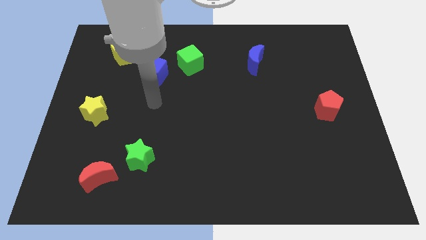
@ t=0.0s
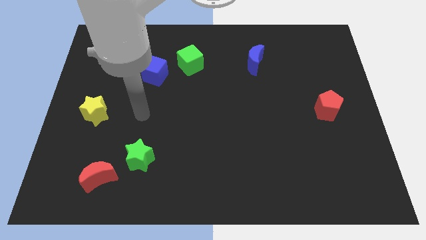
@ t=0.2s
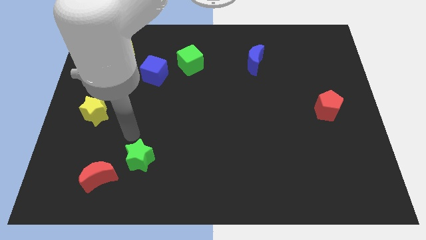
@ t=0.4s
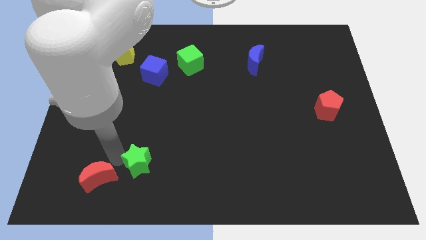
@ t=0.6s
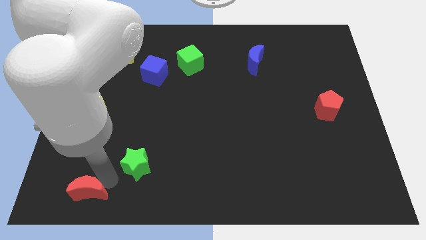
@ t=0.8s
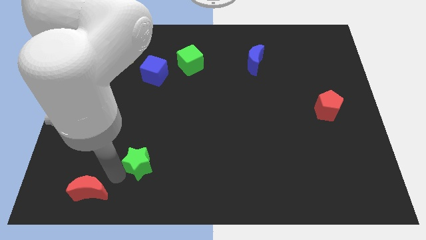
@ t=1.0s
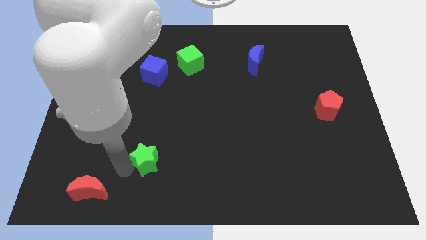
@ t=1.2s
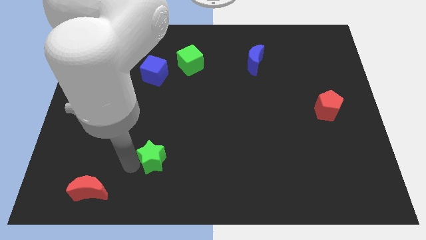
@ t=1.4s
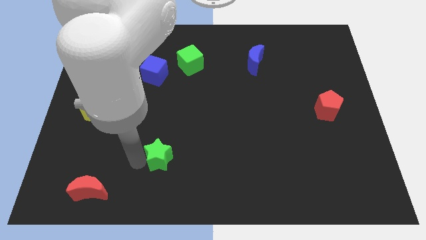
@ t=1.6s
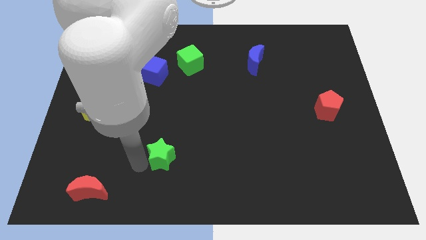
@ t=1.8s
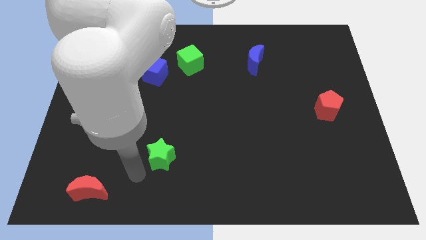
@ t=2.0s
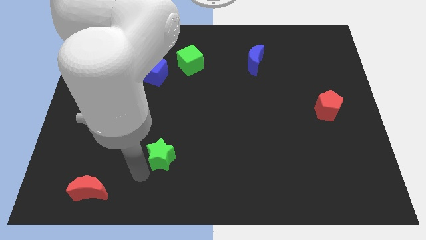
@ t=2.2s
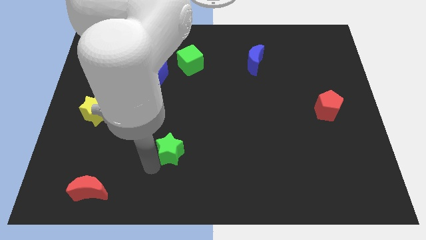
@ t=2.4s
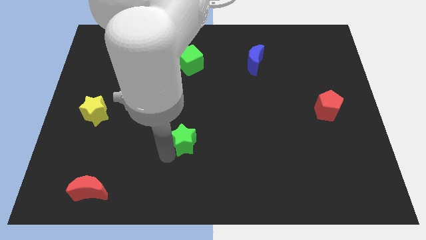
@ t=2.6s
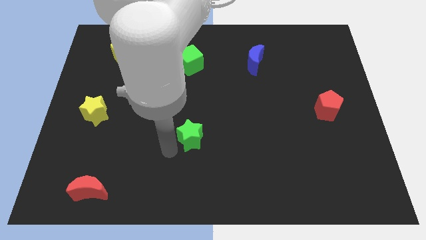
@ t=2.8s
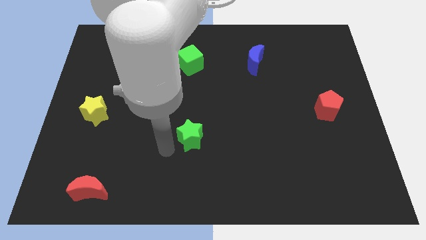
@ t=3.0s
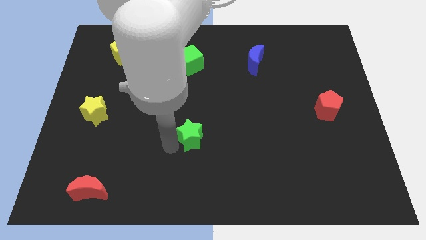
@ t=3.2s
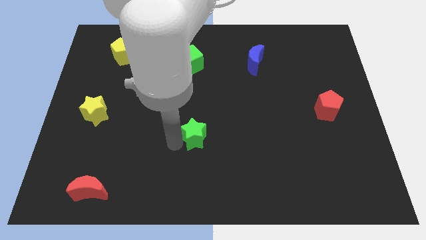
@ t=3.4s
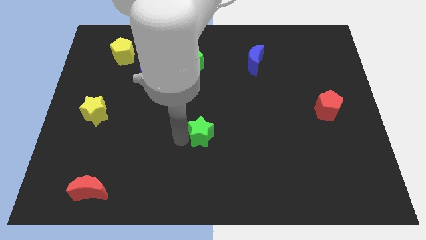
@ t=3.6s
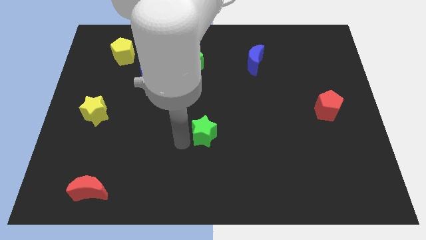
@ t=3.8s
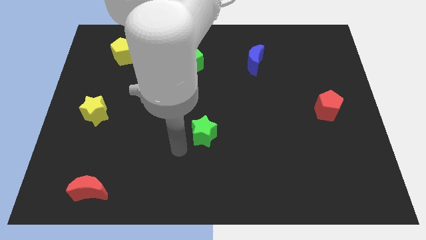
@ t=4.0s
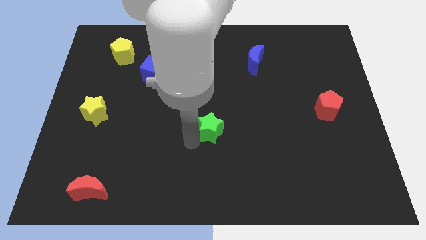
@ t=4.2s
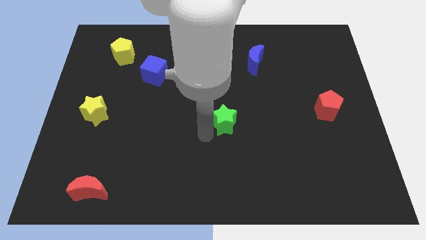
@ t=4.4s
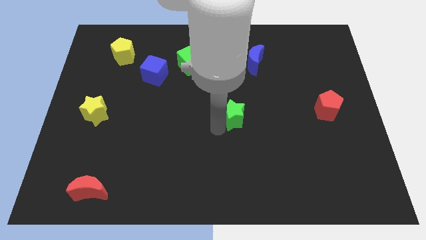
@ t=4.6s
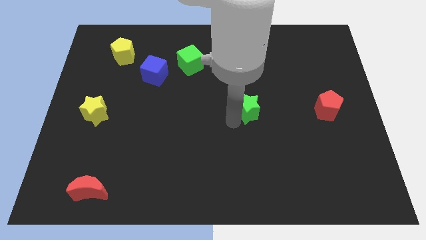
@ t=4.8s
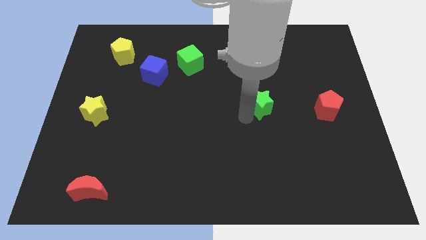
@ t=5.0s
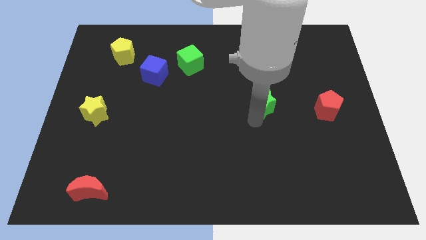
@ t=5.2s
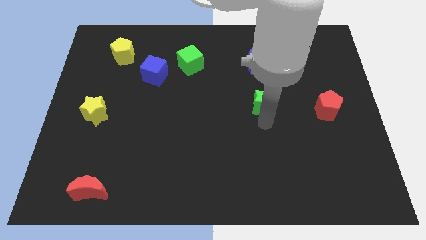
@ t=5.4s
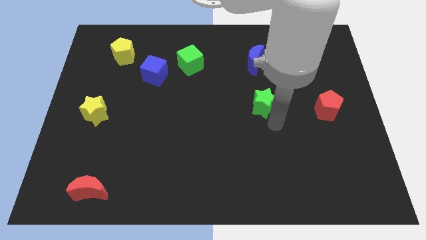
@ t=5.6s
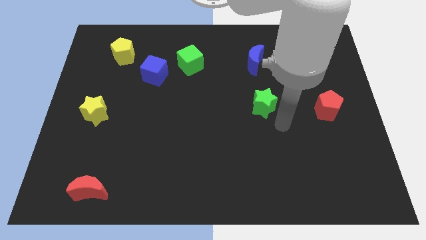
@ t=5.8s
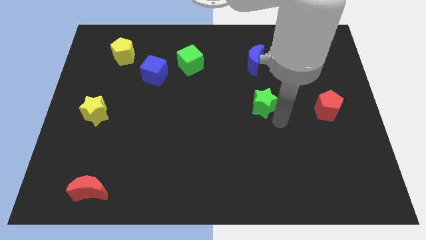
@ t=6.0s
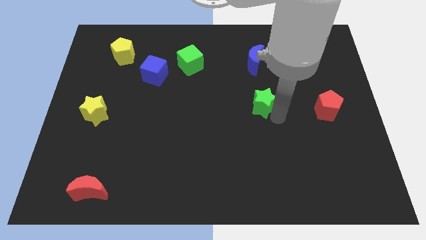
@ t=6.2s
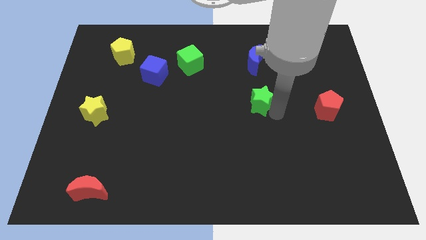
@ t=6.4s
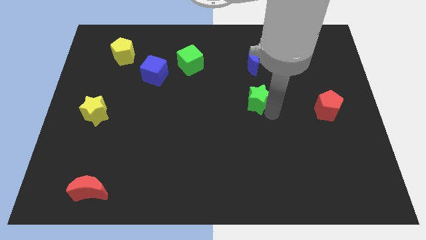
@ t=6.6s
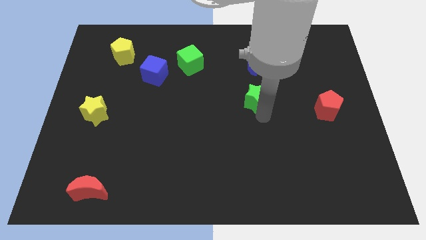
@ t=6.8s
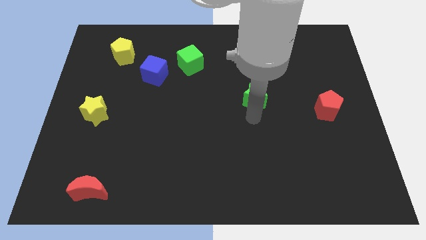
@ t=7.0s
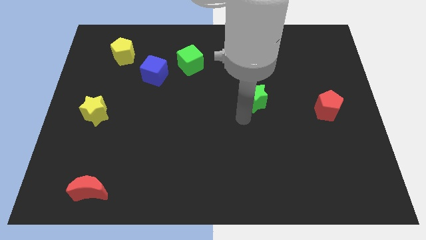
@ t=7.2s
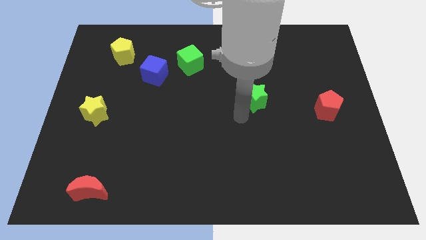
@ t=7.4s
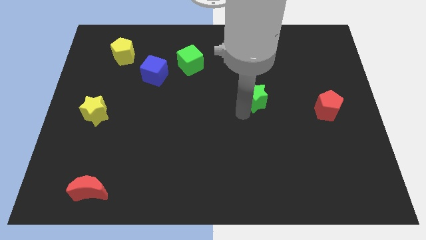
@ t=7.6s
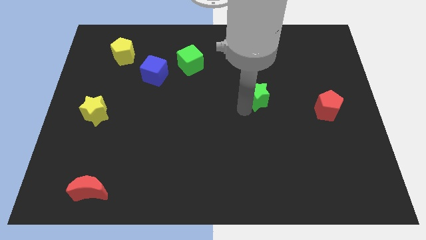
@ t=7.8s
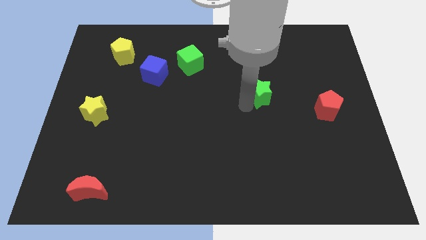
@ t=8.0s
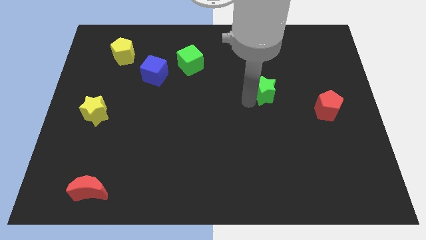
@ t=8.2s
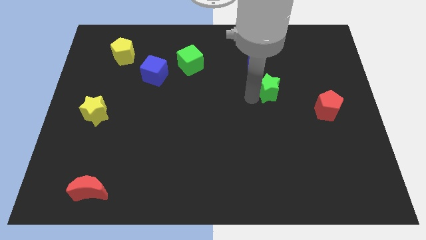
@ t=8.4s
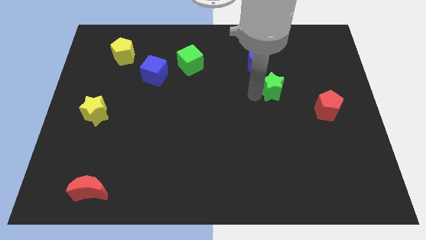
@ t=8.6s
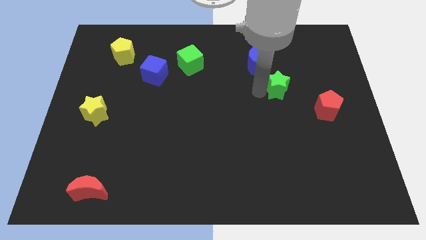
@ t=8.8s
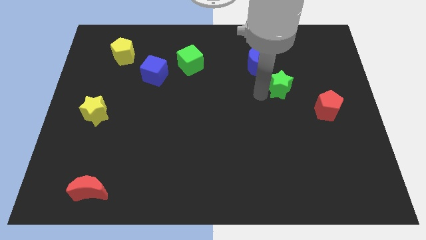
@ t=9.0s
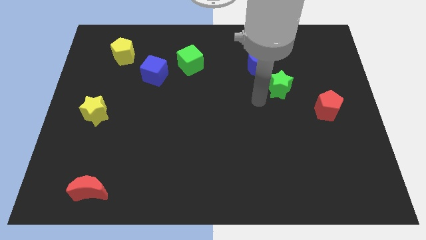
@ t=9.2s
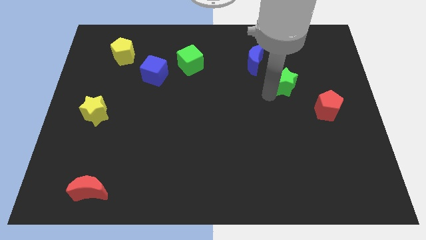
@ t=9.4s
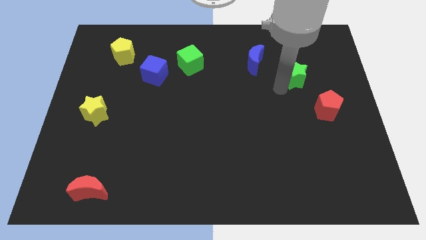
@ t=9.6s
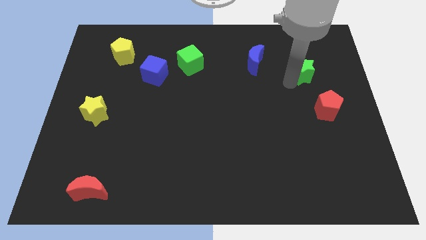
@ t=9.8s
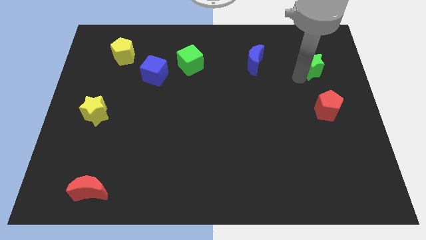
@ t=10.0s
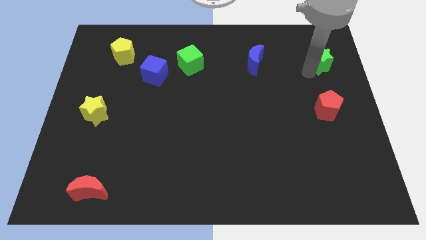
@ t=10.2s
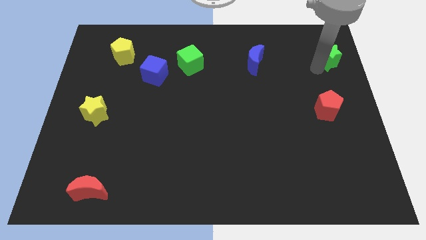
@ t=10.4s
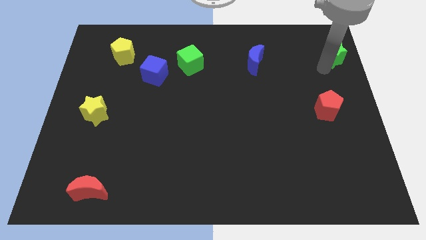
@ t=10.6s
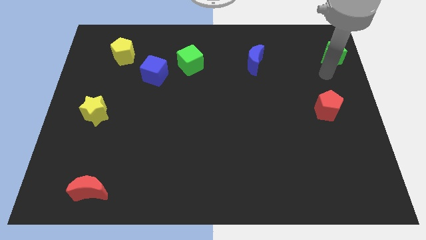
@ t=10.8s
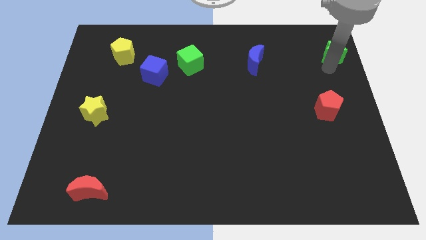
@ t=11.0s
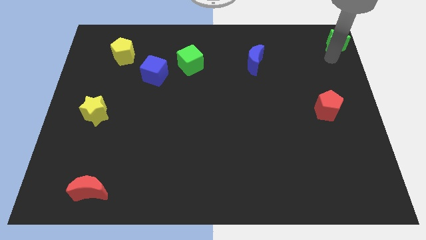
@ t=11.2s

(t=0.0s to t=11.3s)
move the green star to the upper right corner
